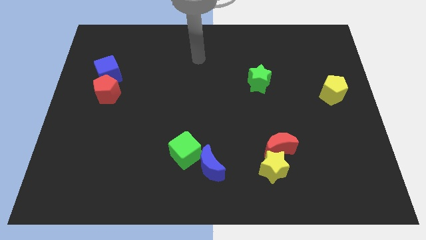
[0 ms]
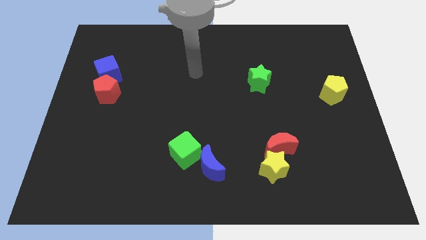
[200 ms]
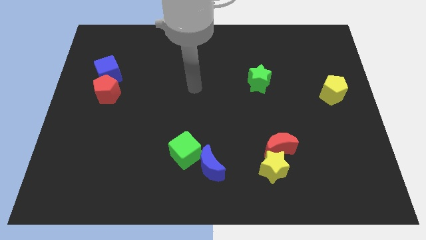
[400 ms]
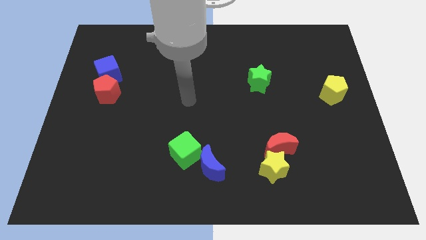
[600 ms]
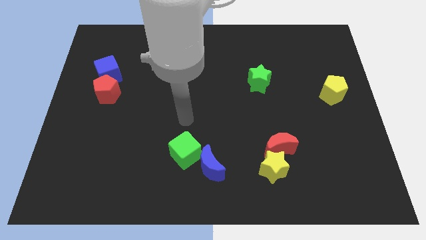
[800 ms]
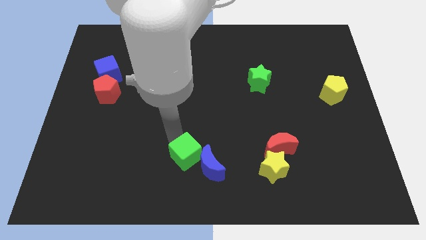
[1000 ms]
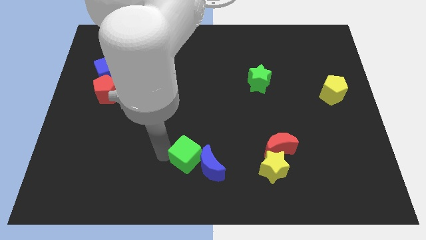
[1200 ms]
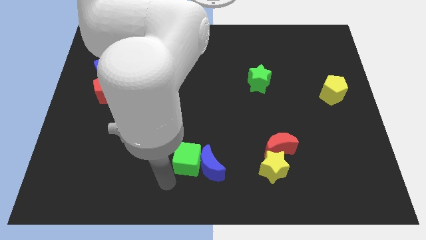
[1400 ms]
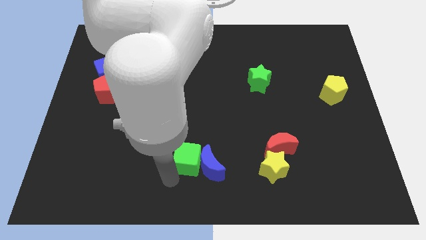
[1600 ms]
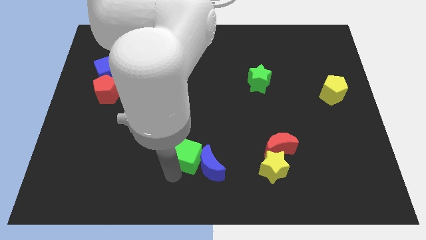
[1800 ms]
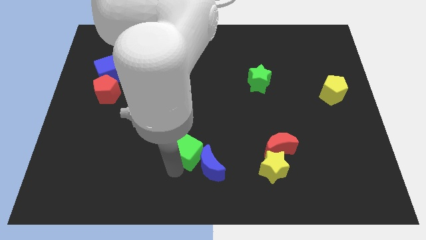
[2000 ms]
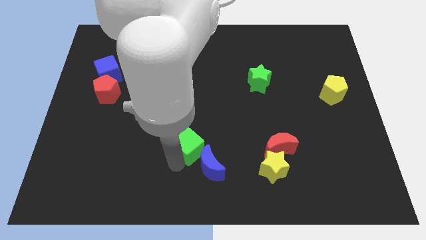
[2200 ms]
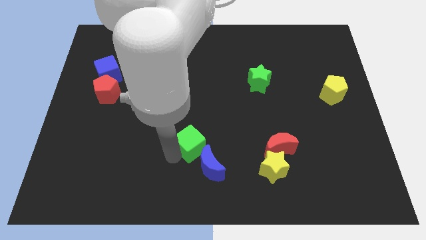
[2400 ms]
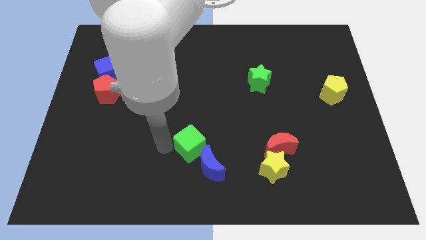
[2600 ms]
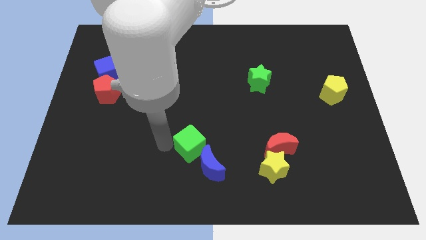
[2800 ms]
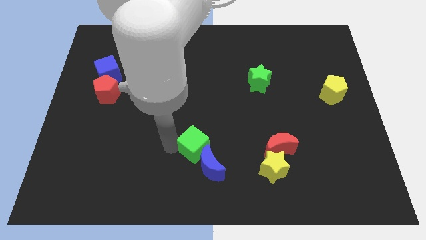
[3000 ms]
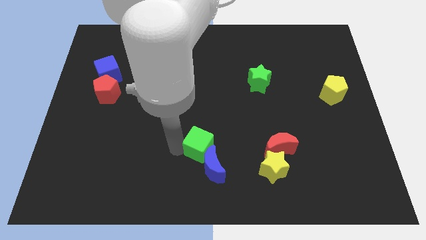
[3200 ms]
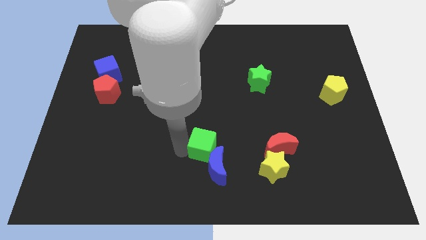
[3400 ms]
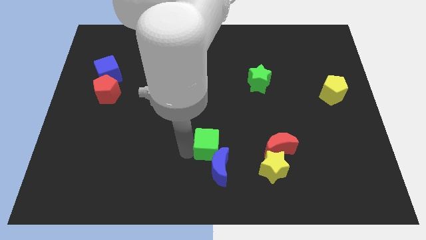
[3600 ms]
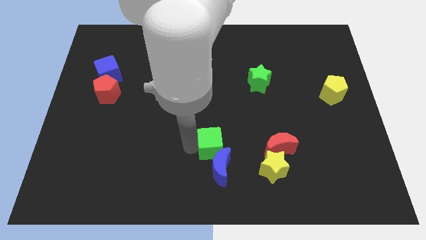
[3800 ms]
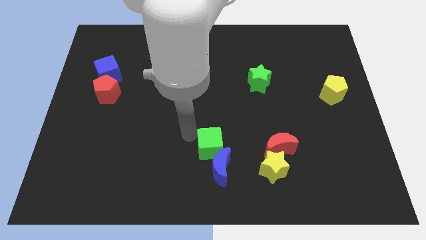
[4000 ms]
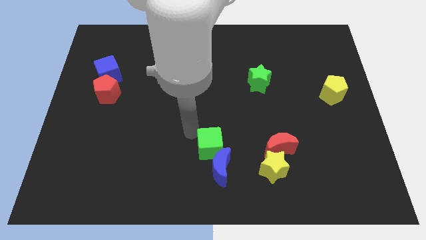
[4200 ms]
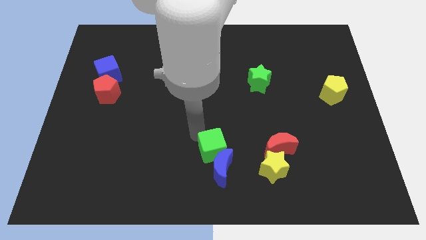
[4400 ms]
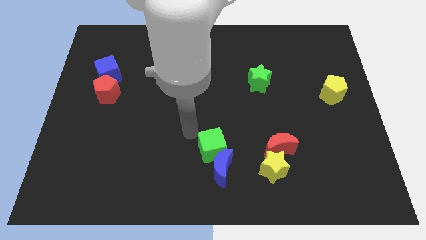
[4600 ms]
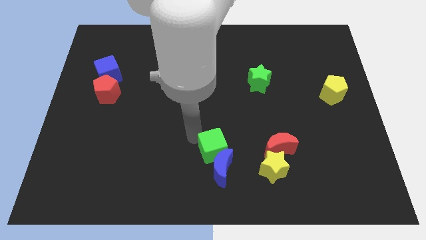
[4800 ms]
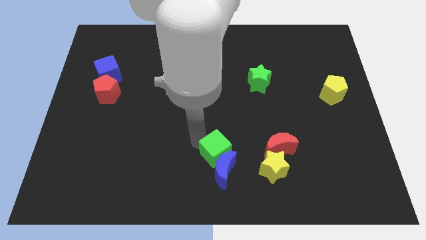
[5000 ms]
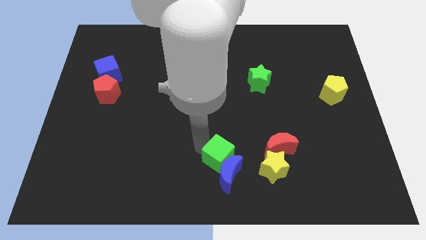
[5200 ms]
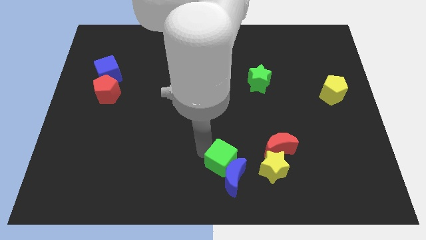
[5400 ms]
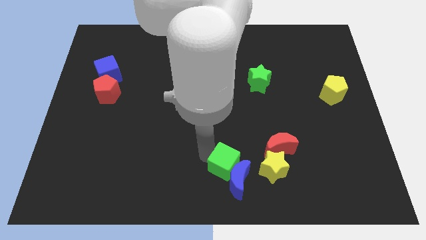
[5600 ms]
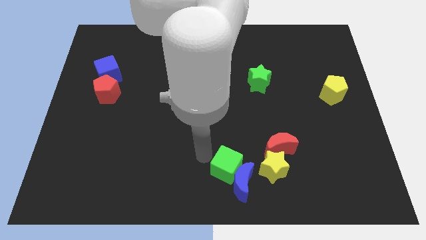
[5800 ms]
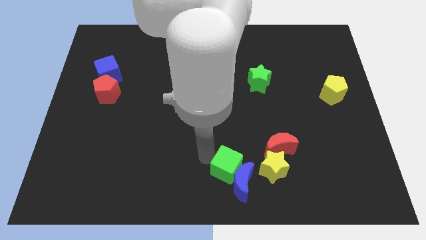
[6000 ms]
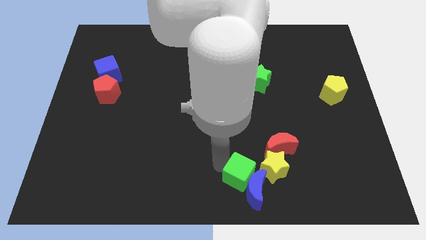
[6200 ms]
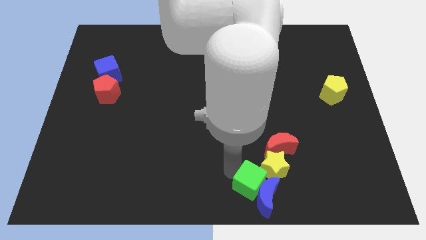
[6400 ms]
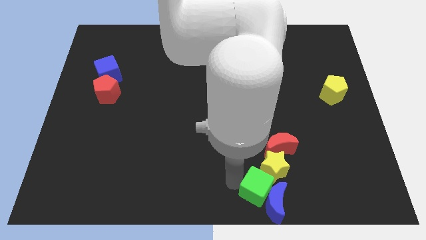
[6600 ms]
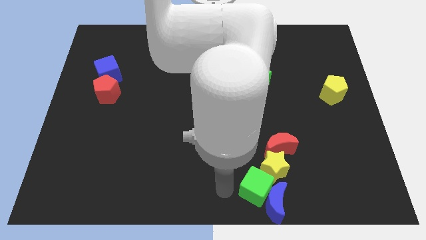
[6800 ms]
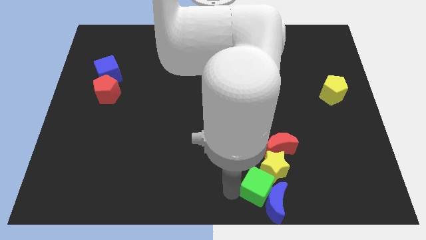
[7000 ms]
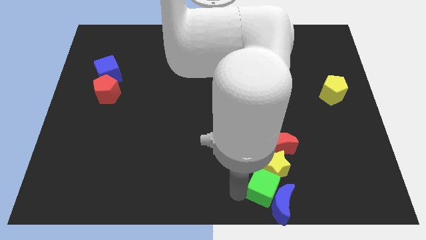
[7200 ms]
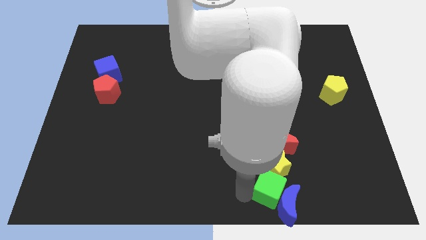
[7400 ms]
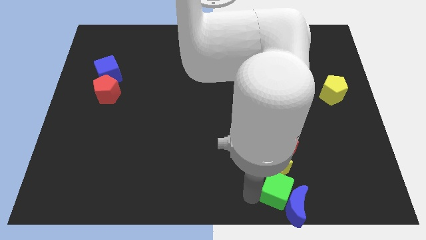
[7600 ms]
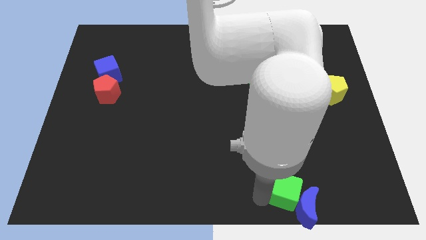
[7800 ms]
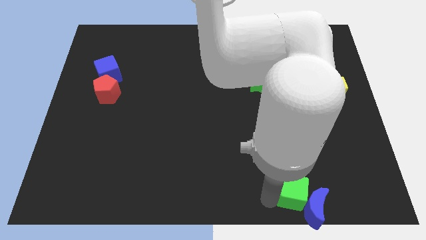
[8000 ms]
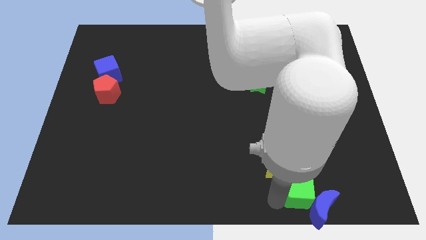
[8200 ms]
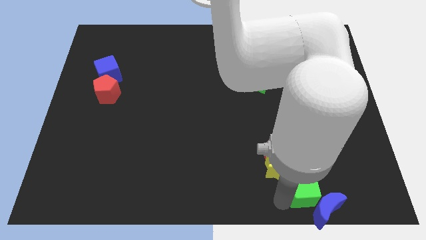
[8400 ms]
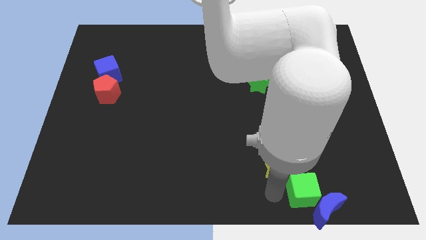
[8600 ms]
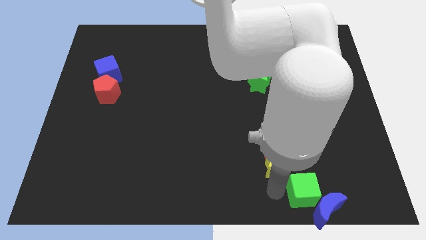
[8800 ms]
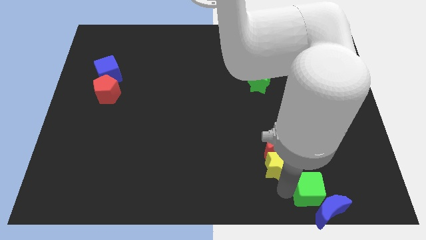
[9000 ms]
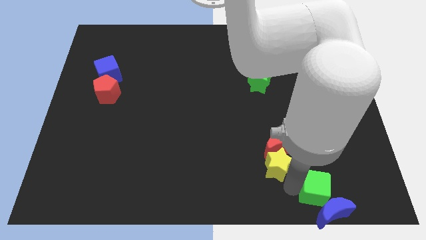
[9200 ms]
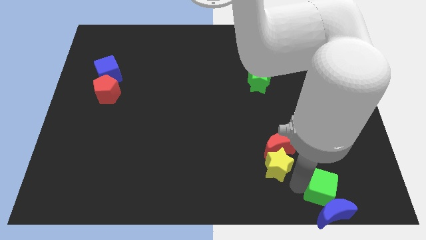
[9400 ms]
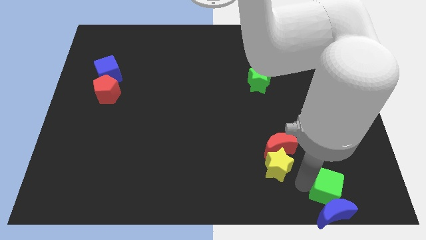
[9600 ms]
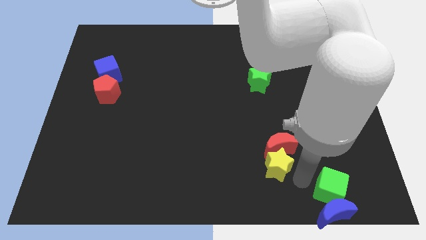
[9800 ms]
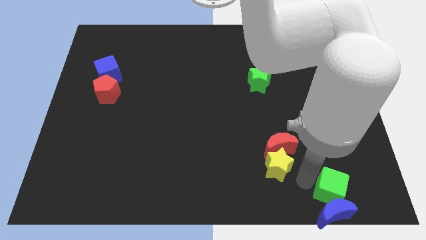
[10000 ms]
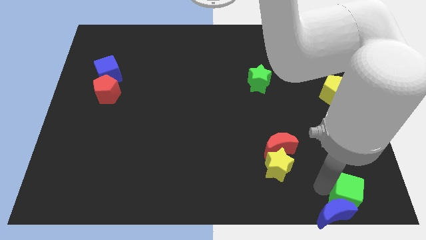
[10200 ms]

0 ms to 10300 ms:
move the green cube to the bottom right
